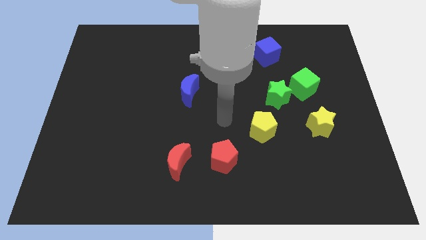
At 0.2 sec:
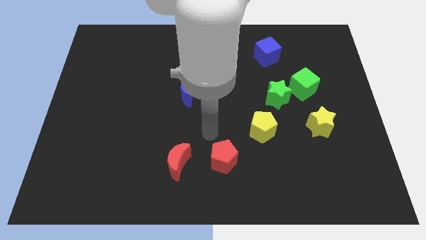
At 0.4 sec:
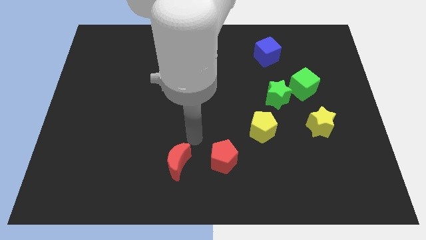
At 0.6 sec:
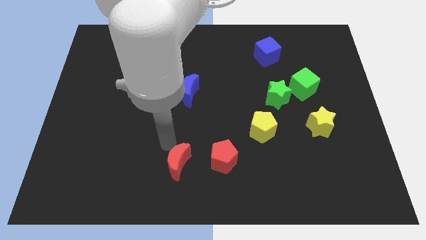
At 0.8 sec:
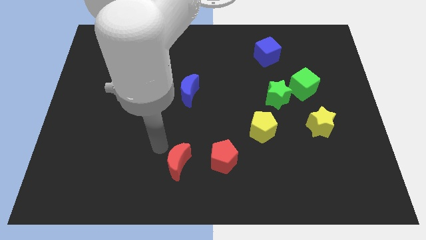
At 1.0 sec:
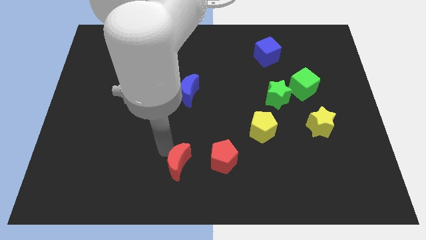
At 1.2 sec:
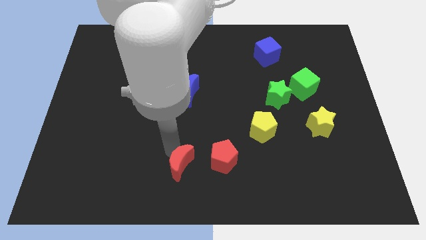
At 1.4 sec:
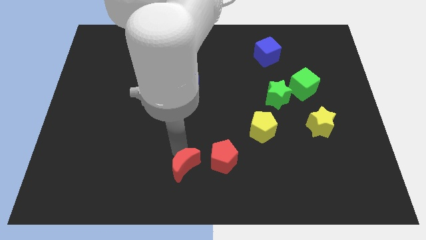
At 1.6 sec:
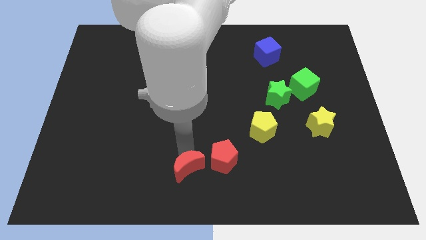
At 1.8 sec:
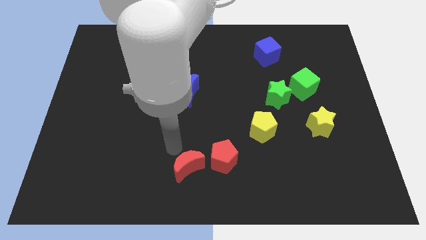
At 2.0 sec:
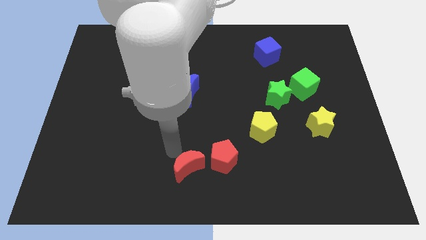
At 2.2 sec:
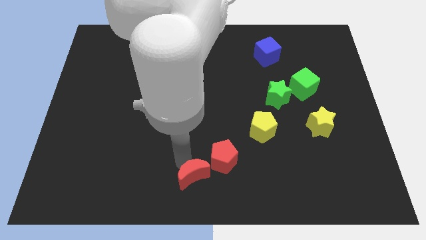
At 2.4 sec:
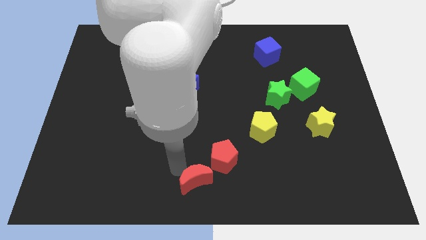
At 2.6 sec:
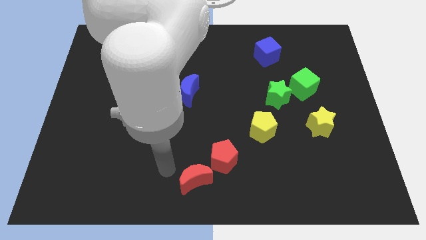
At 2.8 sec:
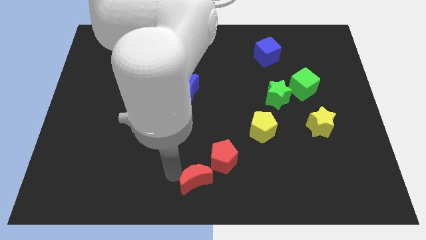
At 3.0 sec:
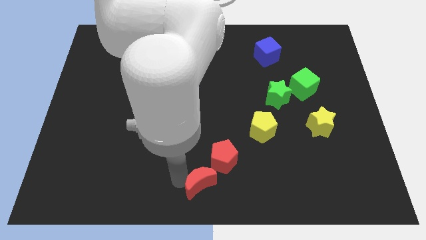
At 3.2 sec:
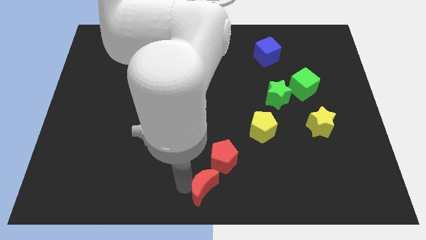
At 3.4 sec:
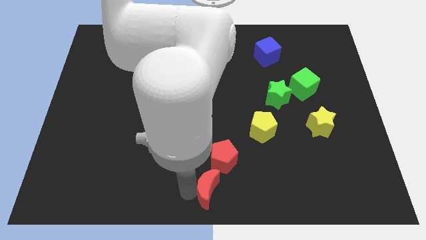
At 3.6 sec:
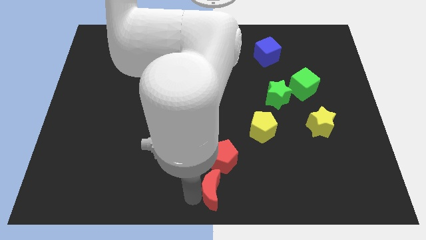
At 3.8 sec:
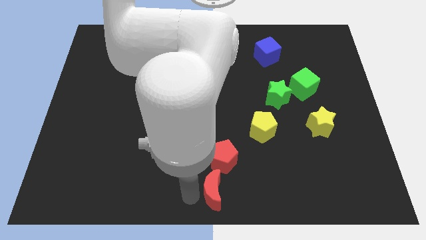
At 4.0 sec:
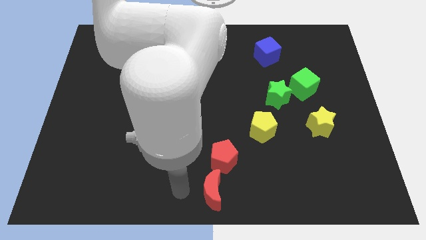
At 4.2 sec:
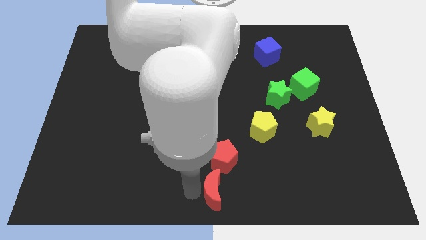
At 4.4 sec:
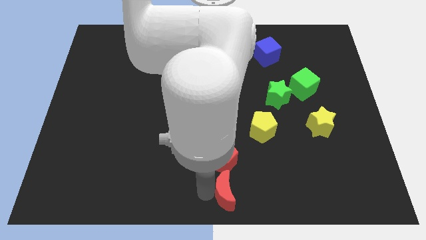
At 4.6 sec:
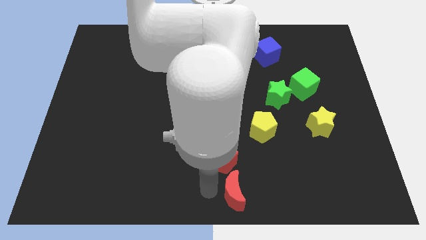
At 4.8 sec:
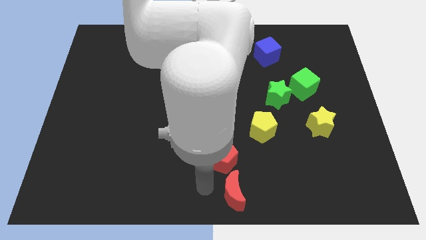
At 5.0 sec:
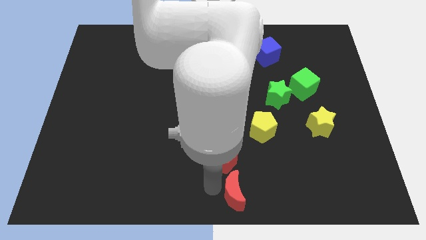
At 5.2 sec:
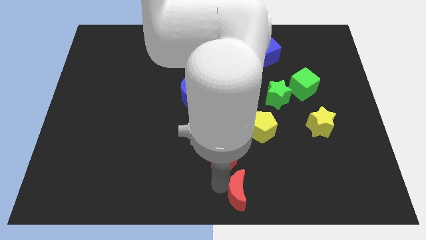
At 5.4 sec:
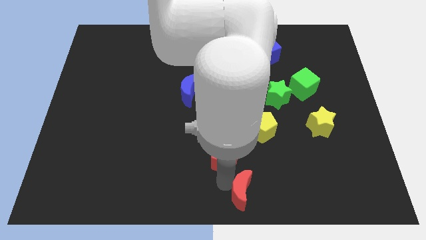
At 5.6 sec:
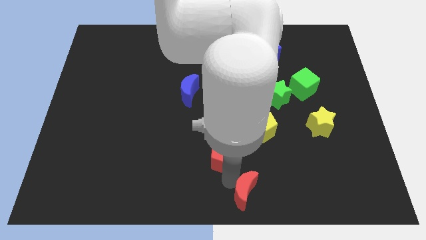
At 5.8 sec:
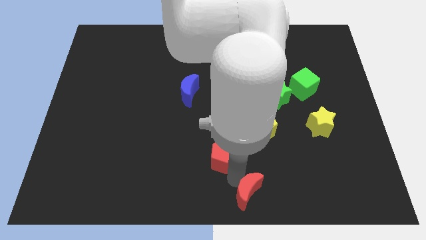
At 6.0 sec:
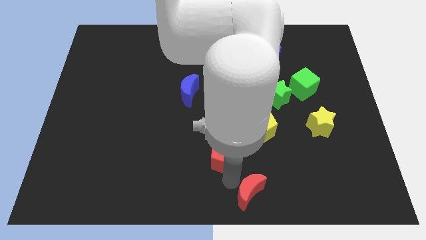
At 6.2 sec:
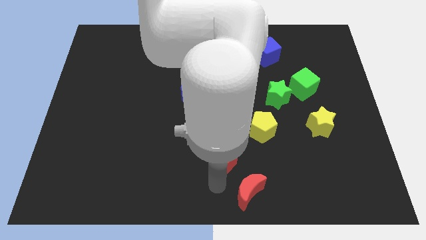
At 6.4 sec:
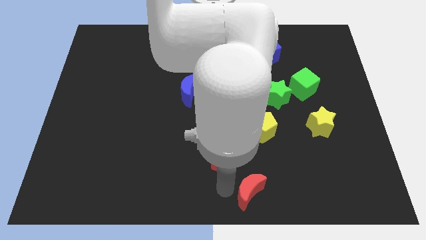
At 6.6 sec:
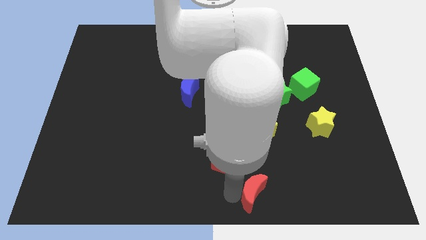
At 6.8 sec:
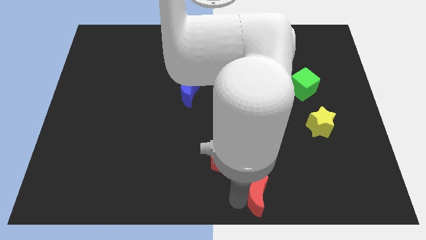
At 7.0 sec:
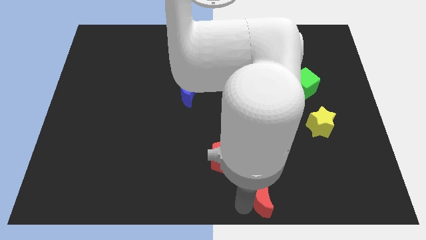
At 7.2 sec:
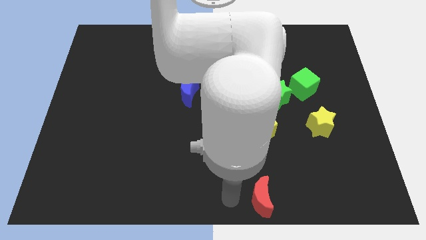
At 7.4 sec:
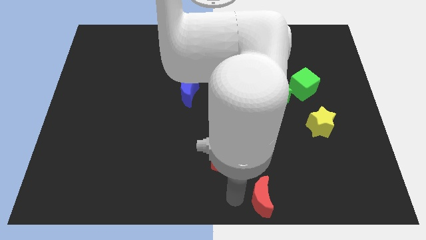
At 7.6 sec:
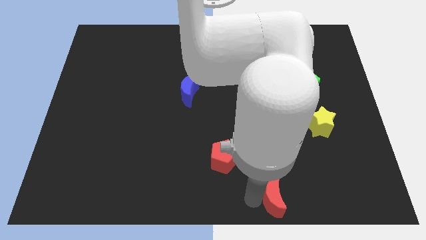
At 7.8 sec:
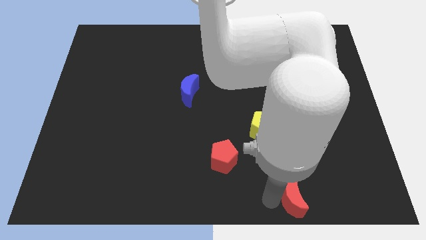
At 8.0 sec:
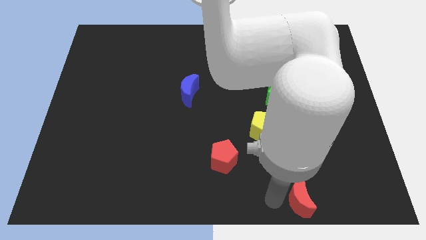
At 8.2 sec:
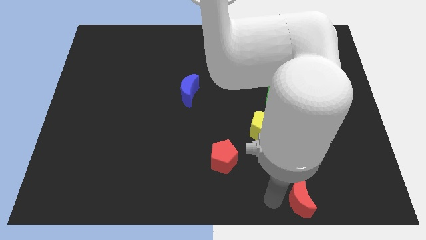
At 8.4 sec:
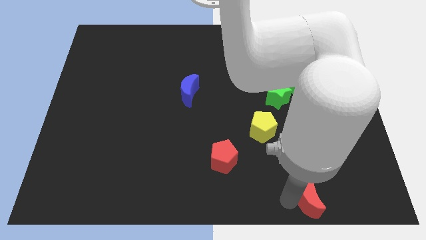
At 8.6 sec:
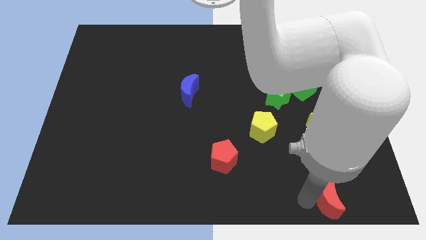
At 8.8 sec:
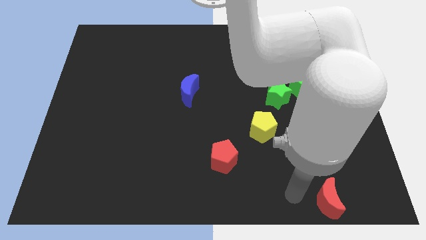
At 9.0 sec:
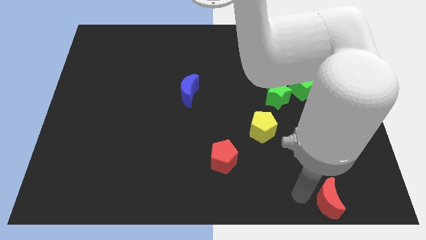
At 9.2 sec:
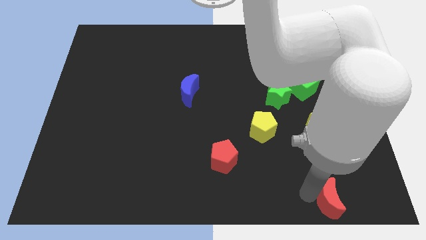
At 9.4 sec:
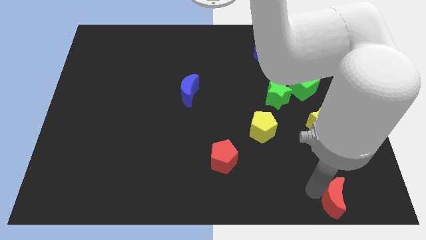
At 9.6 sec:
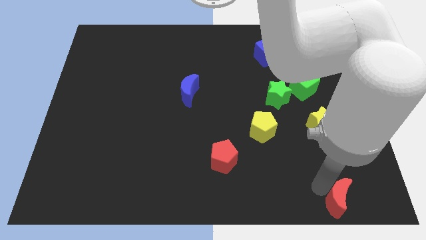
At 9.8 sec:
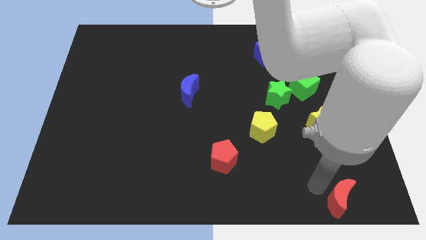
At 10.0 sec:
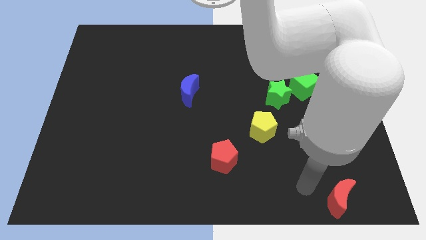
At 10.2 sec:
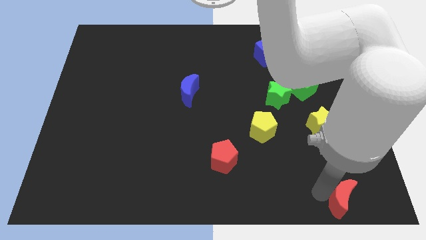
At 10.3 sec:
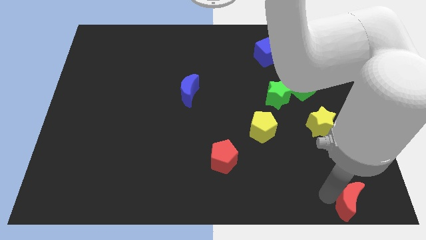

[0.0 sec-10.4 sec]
push the red moon to the bottom right

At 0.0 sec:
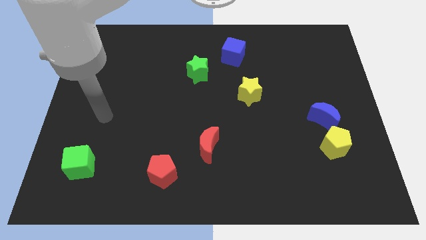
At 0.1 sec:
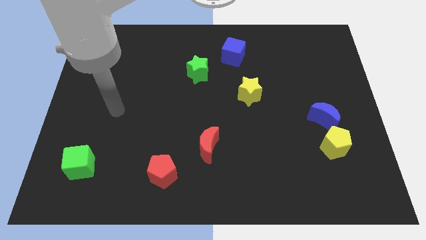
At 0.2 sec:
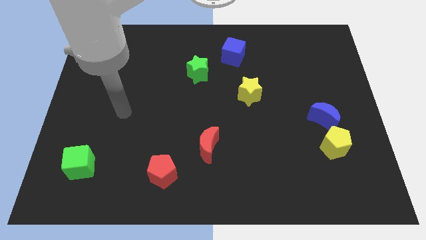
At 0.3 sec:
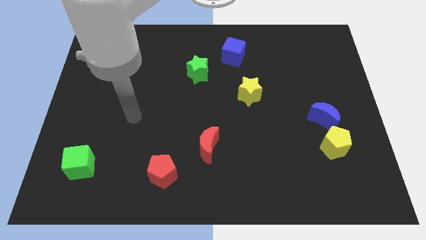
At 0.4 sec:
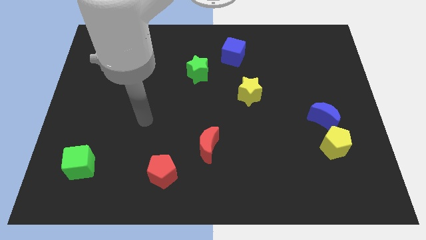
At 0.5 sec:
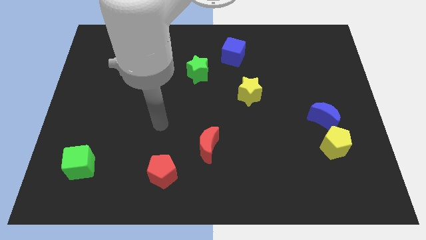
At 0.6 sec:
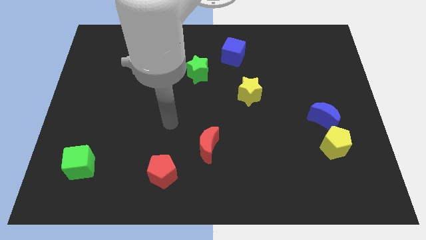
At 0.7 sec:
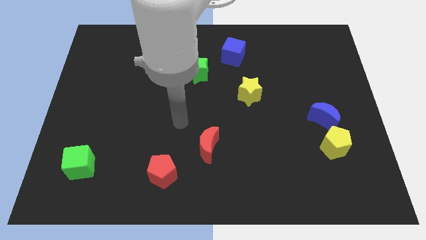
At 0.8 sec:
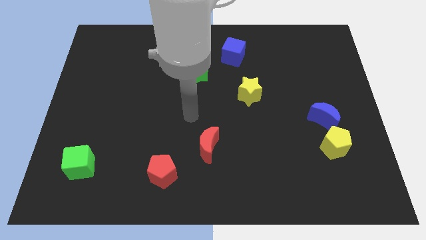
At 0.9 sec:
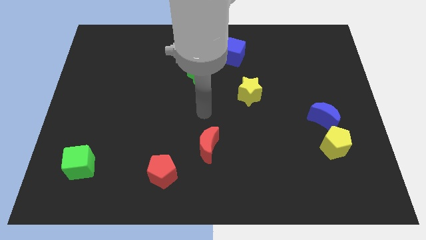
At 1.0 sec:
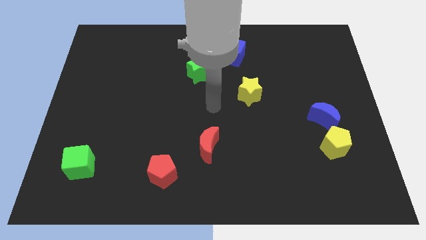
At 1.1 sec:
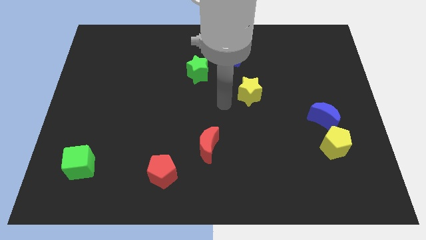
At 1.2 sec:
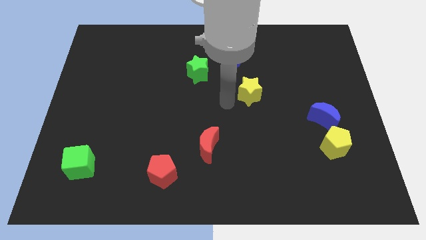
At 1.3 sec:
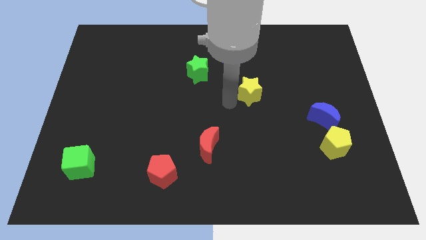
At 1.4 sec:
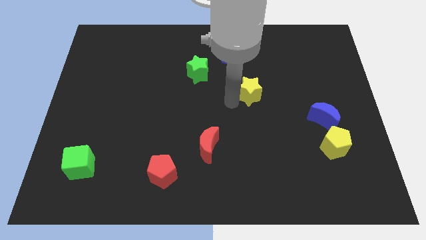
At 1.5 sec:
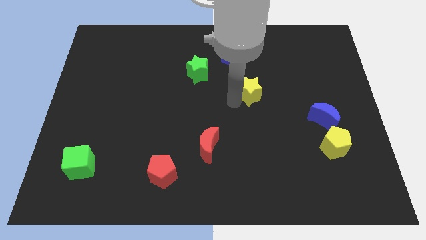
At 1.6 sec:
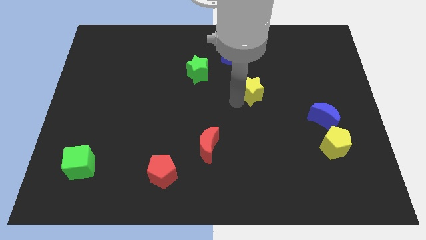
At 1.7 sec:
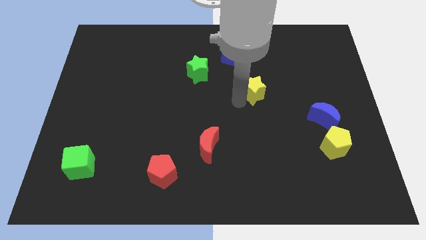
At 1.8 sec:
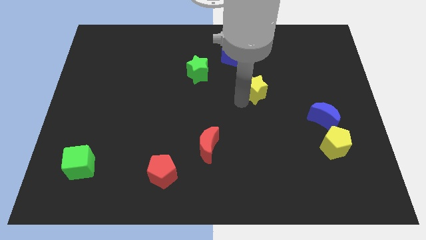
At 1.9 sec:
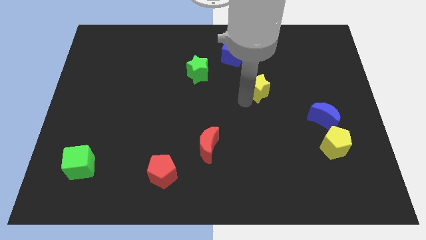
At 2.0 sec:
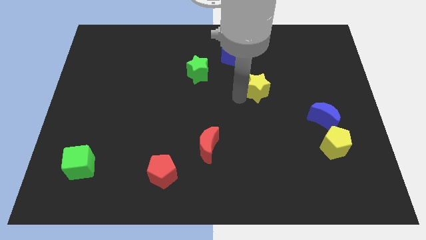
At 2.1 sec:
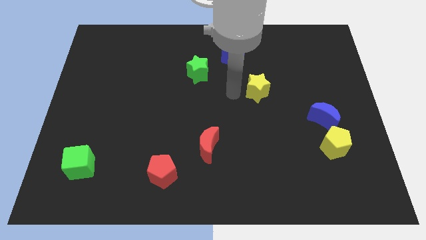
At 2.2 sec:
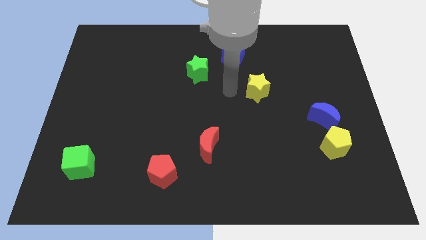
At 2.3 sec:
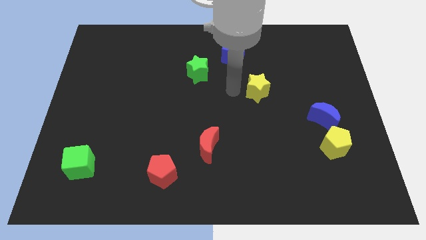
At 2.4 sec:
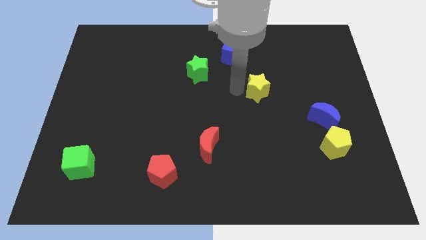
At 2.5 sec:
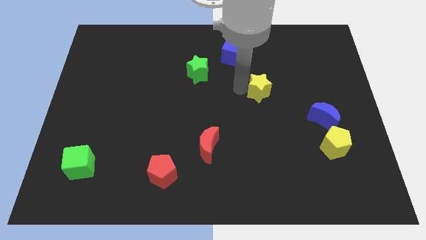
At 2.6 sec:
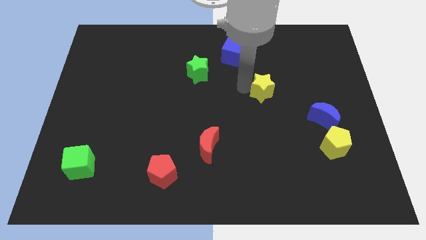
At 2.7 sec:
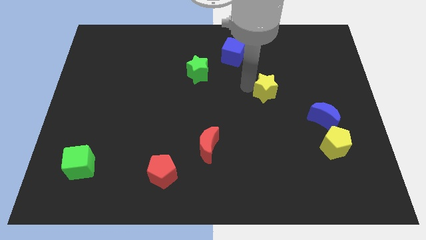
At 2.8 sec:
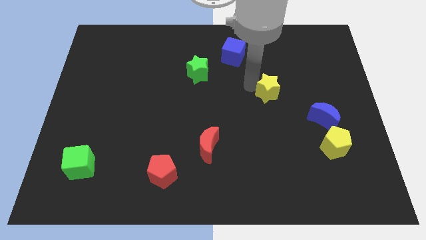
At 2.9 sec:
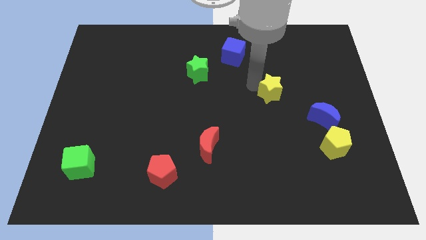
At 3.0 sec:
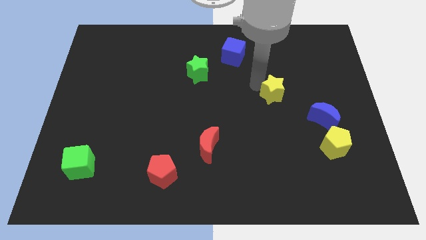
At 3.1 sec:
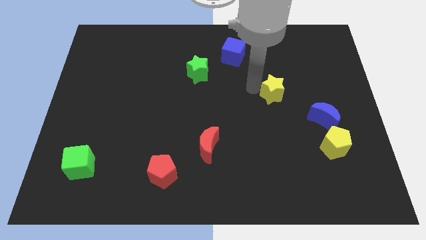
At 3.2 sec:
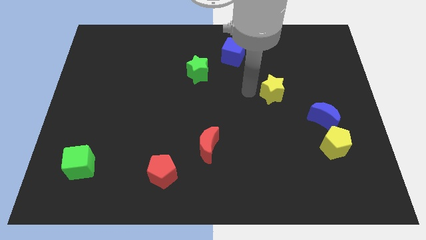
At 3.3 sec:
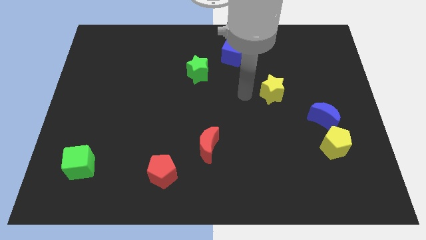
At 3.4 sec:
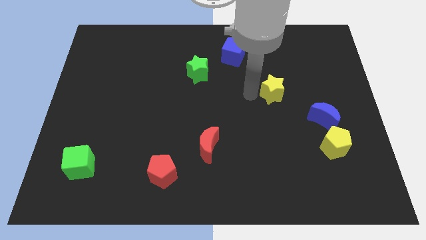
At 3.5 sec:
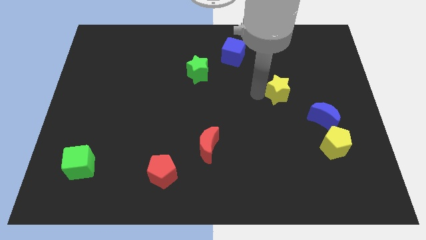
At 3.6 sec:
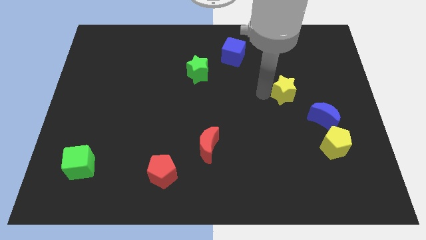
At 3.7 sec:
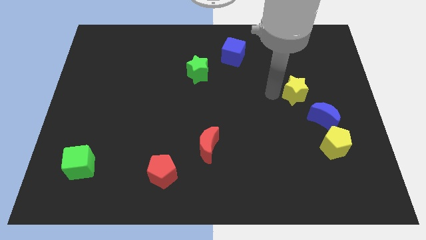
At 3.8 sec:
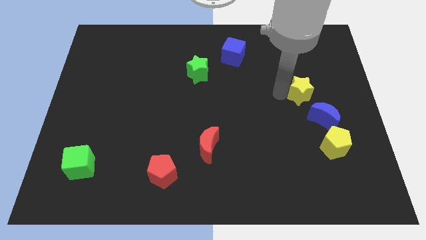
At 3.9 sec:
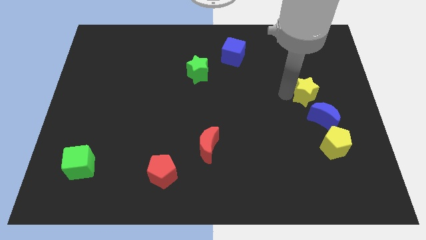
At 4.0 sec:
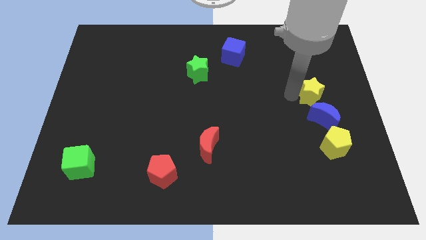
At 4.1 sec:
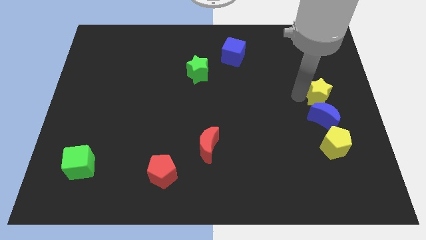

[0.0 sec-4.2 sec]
push the yellow star to the right side of the board
